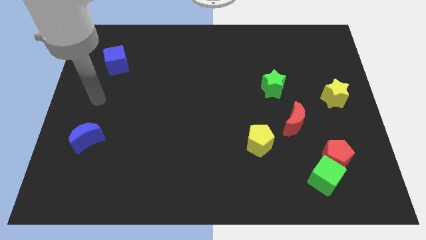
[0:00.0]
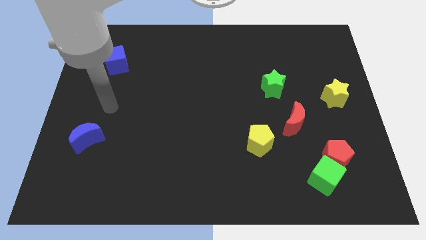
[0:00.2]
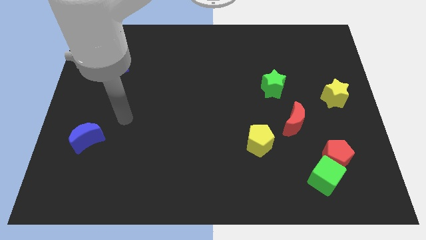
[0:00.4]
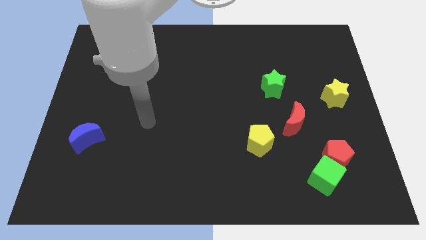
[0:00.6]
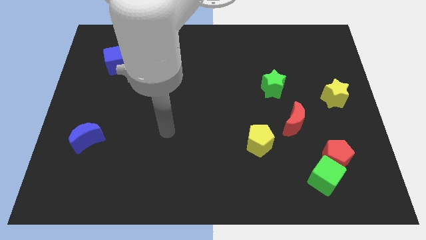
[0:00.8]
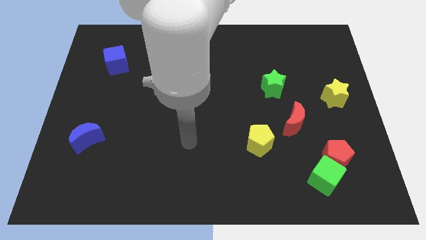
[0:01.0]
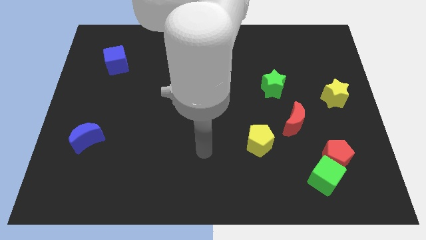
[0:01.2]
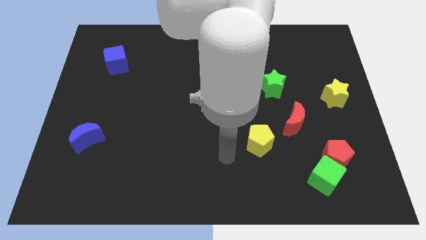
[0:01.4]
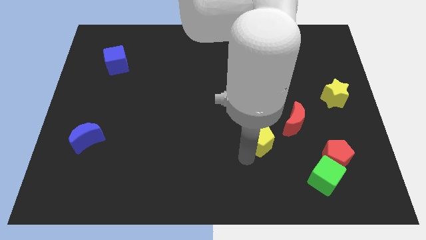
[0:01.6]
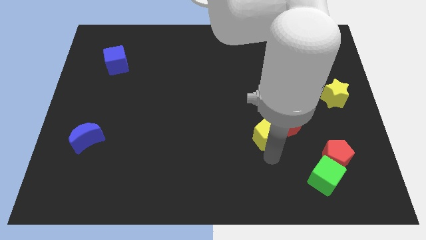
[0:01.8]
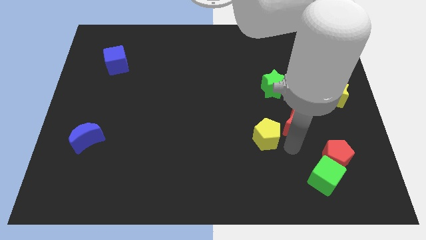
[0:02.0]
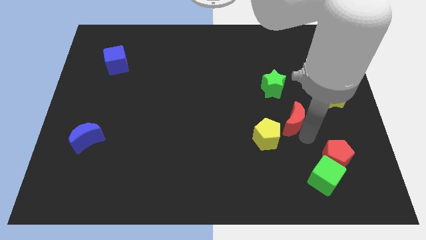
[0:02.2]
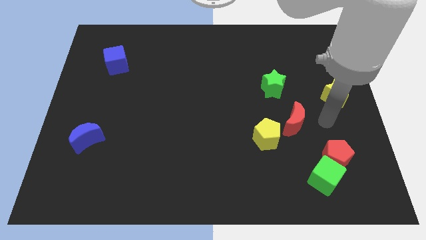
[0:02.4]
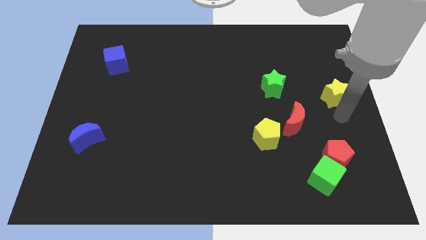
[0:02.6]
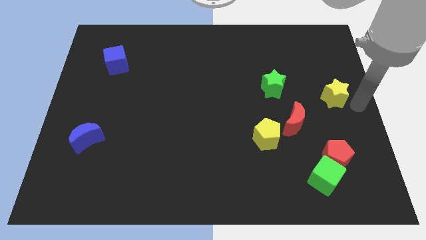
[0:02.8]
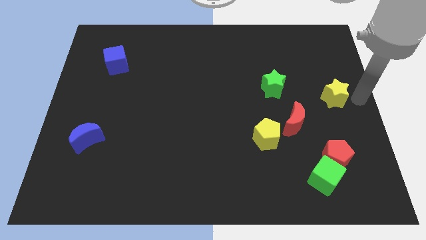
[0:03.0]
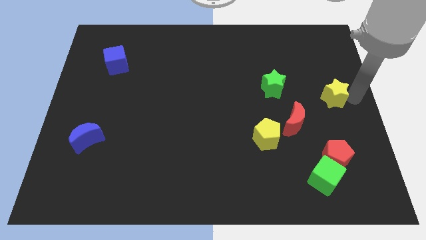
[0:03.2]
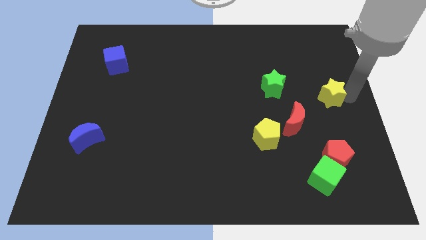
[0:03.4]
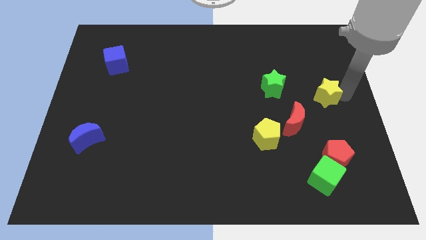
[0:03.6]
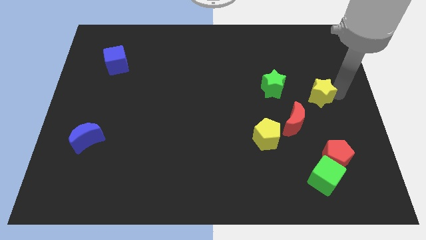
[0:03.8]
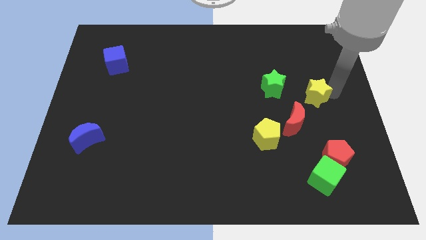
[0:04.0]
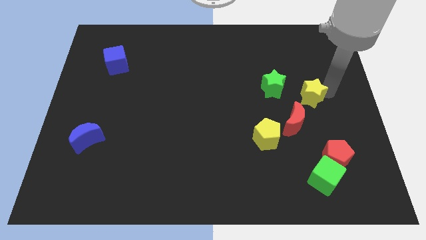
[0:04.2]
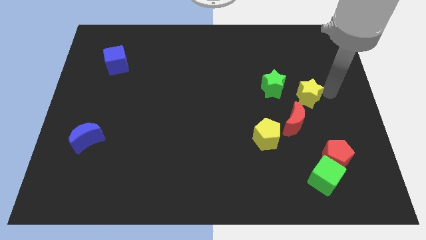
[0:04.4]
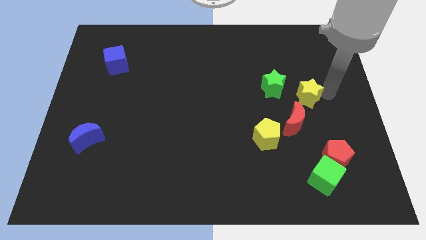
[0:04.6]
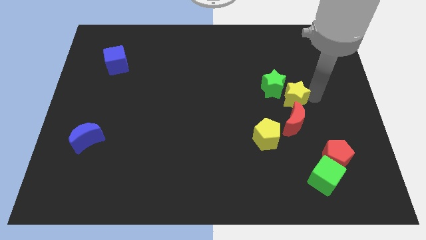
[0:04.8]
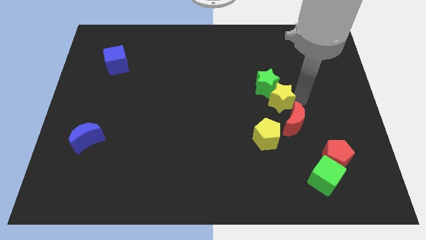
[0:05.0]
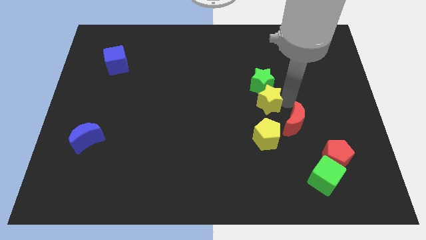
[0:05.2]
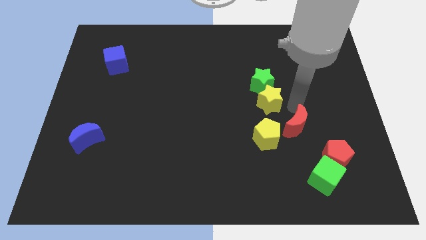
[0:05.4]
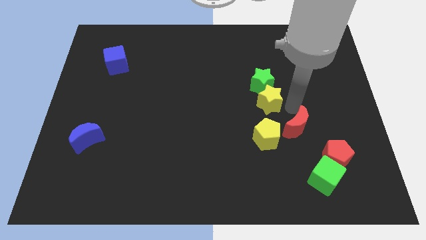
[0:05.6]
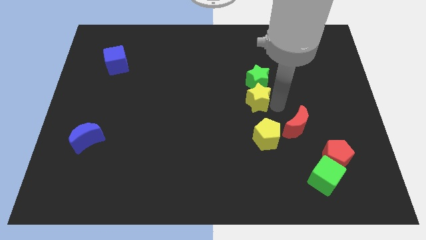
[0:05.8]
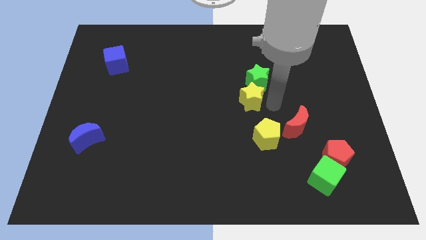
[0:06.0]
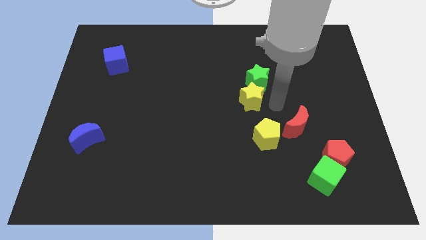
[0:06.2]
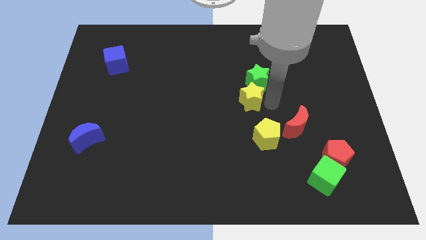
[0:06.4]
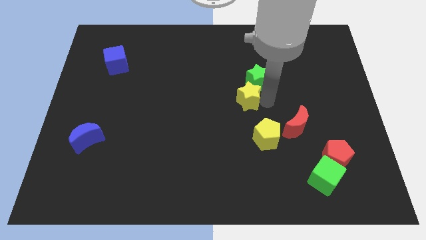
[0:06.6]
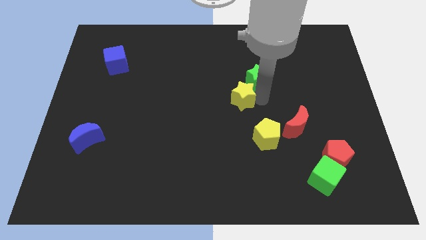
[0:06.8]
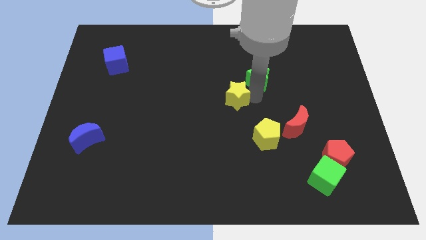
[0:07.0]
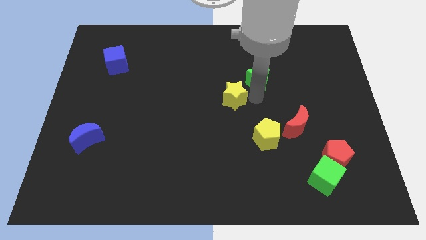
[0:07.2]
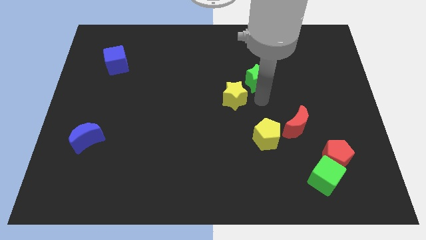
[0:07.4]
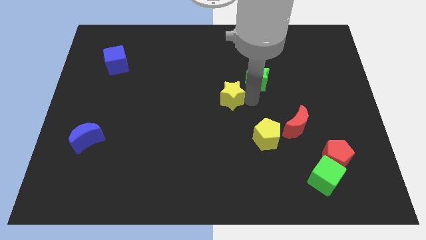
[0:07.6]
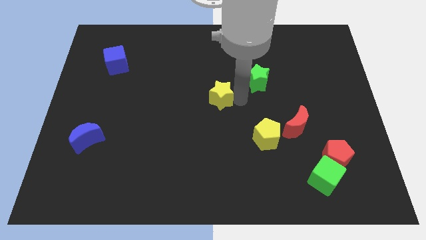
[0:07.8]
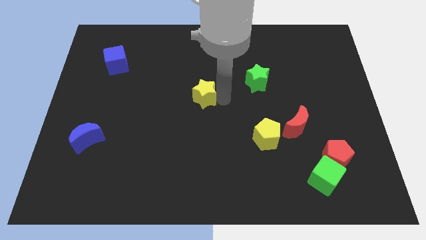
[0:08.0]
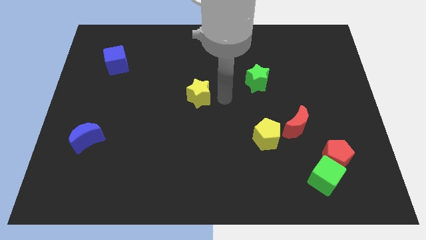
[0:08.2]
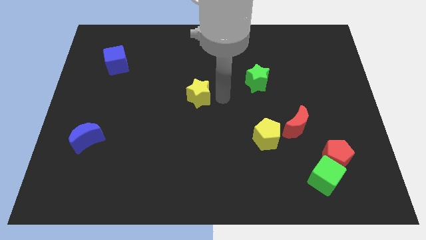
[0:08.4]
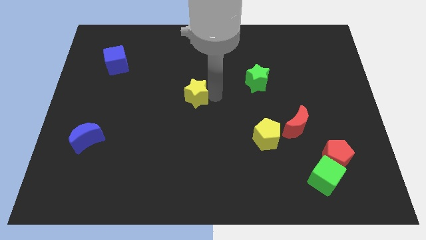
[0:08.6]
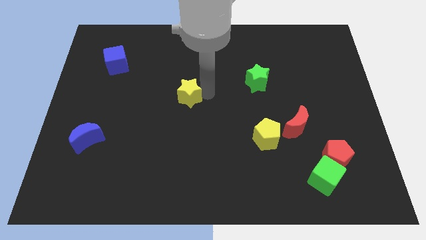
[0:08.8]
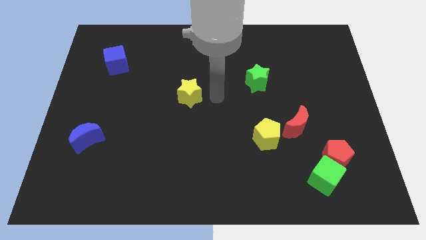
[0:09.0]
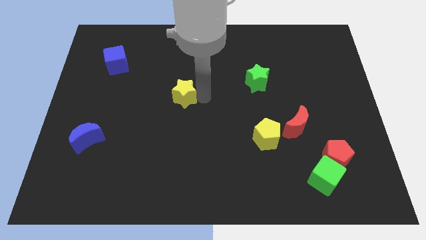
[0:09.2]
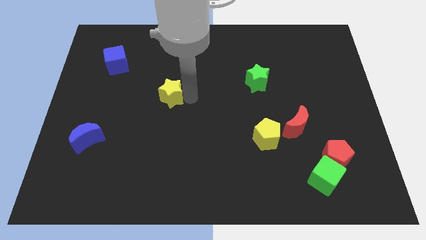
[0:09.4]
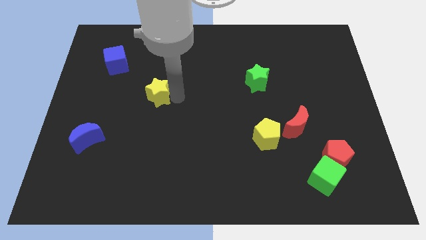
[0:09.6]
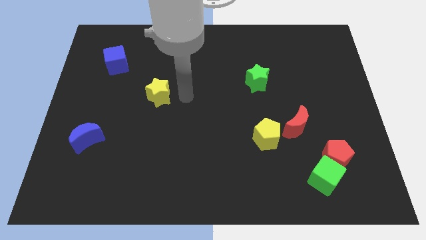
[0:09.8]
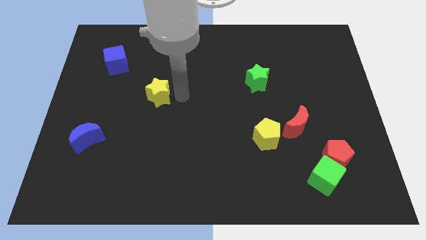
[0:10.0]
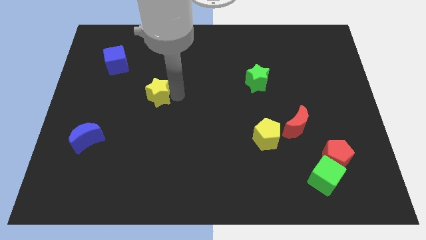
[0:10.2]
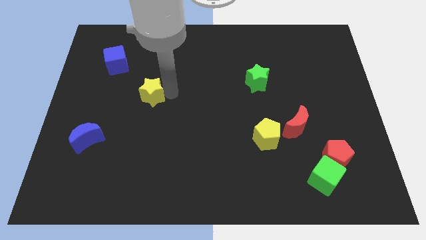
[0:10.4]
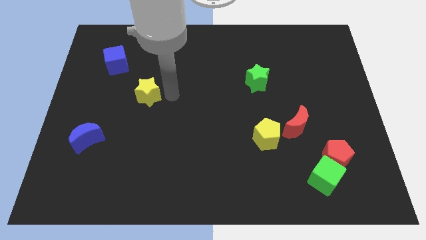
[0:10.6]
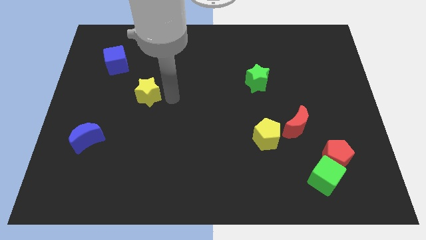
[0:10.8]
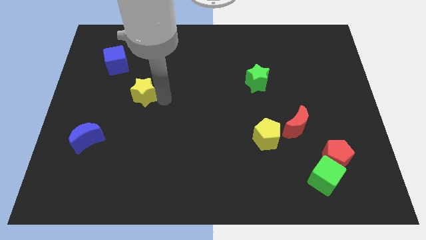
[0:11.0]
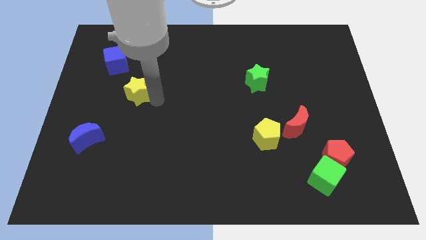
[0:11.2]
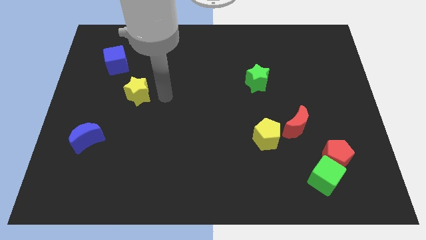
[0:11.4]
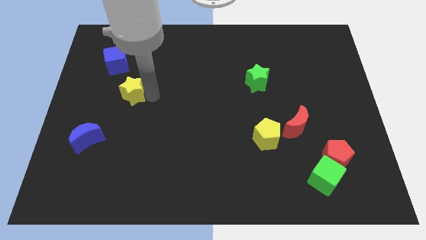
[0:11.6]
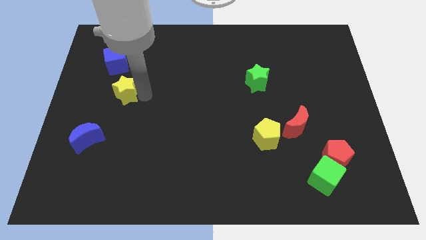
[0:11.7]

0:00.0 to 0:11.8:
move the yellow star to the bottom of the blue cube

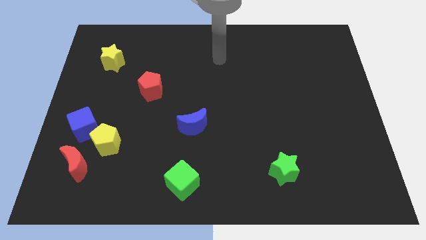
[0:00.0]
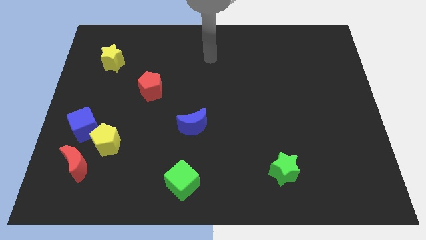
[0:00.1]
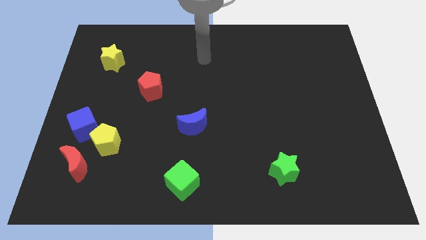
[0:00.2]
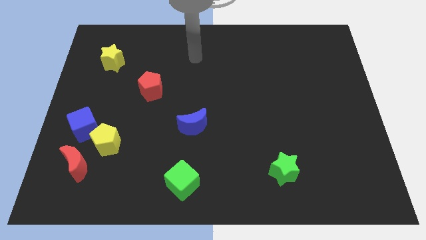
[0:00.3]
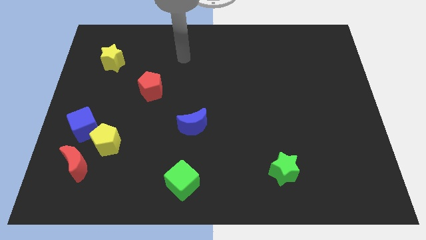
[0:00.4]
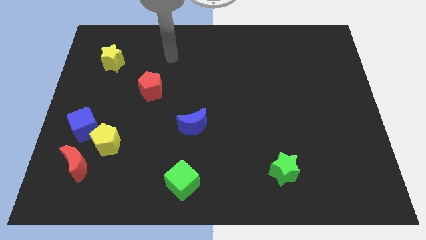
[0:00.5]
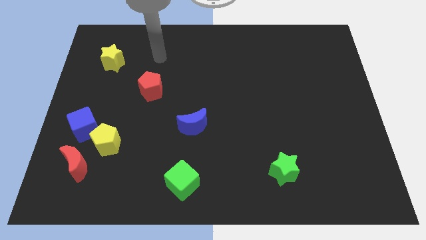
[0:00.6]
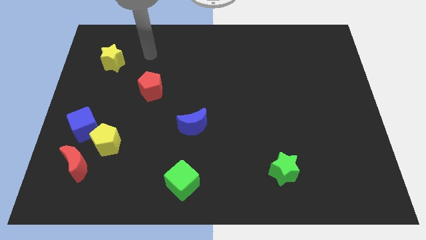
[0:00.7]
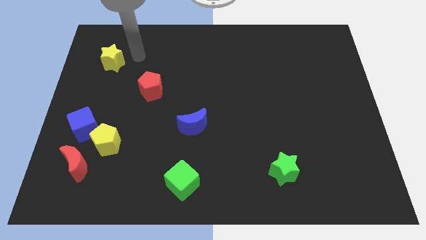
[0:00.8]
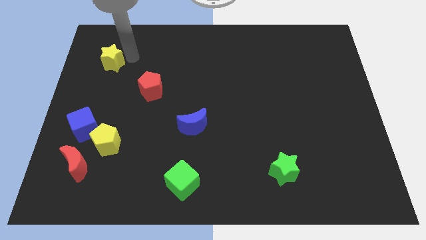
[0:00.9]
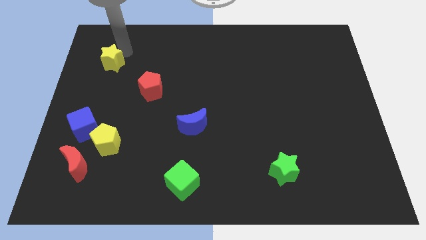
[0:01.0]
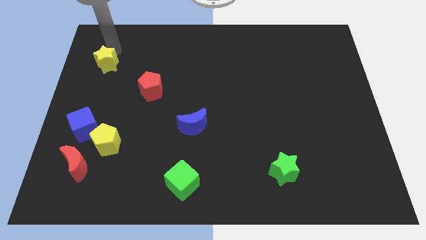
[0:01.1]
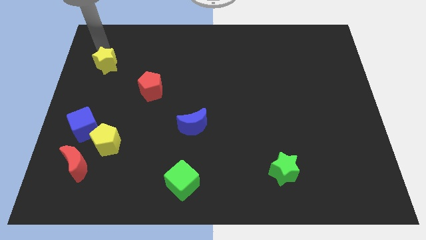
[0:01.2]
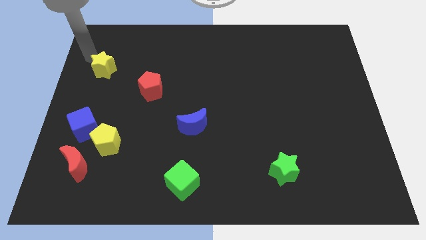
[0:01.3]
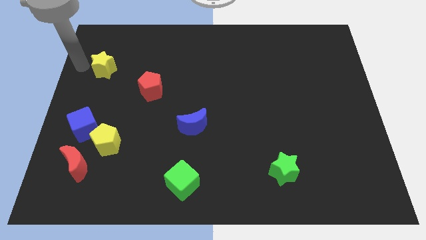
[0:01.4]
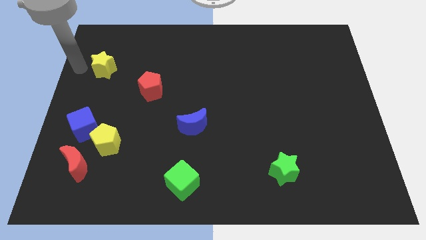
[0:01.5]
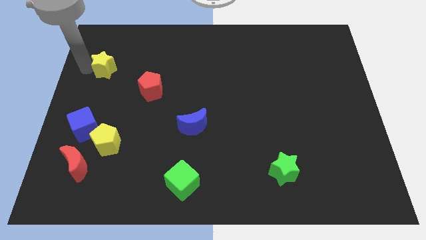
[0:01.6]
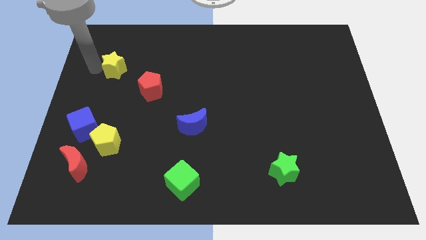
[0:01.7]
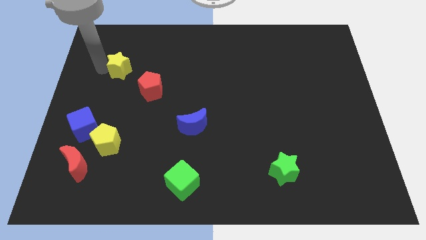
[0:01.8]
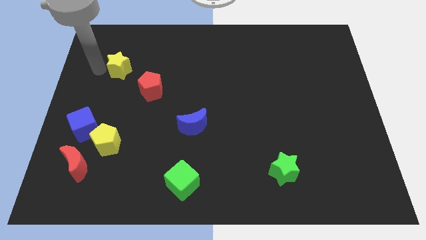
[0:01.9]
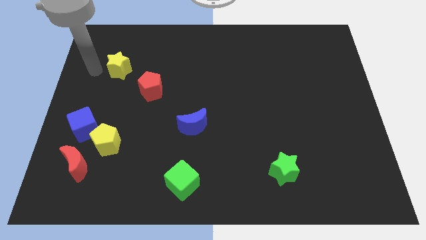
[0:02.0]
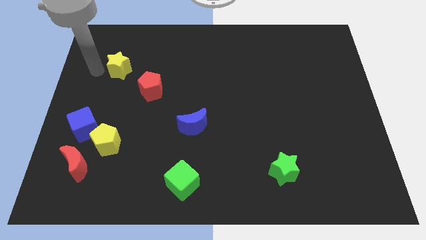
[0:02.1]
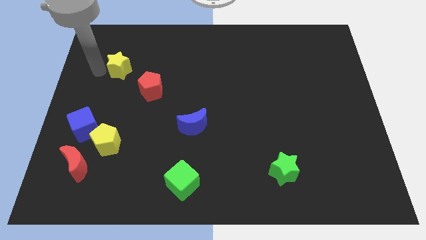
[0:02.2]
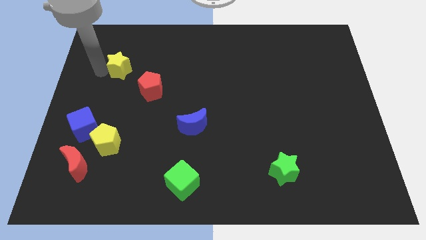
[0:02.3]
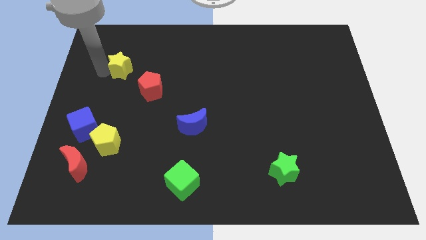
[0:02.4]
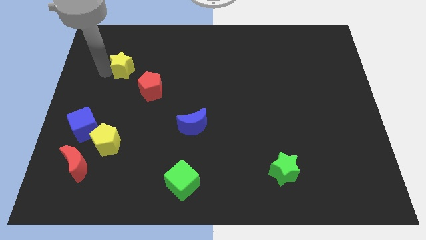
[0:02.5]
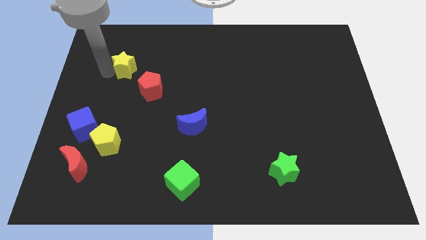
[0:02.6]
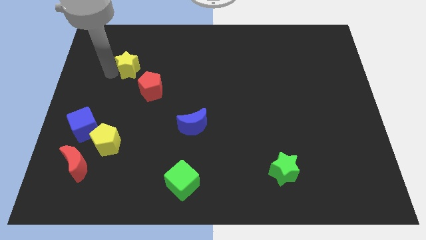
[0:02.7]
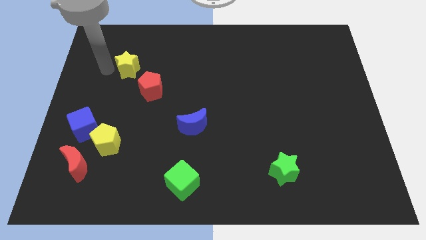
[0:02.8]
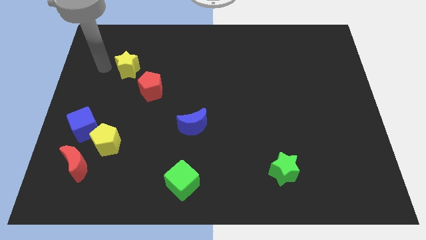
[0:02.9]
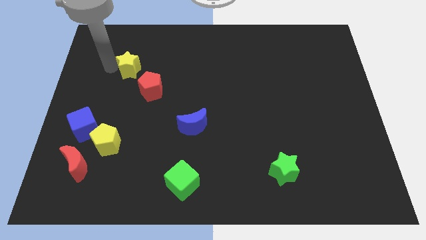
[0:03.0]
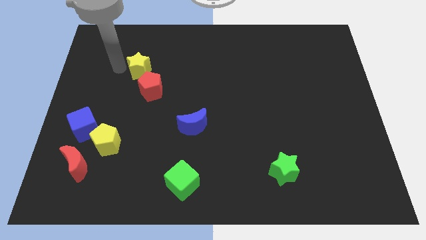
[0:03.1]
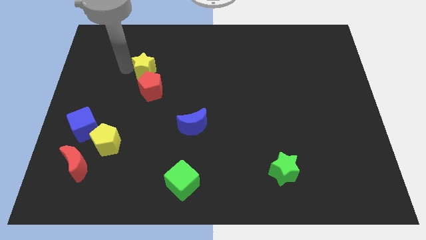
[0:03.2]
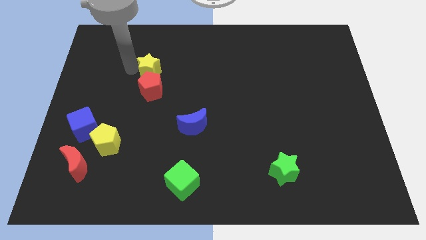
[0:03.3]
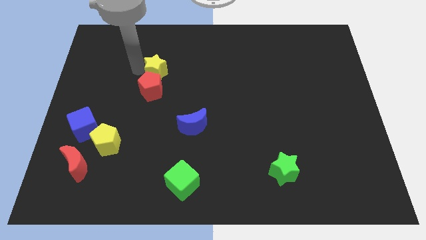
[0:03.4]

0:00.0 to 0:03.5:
move the yellow star to the top right side of the red pentagon
